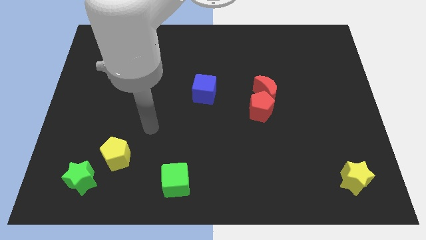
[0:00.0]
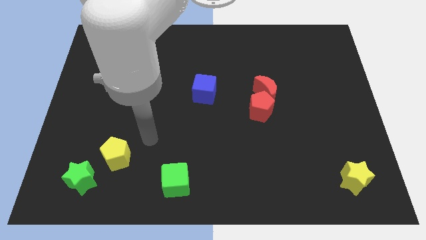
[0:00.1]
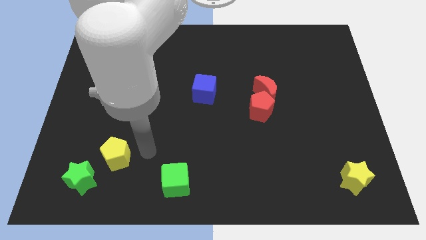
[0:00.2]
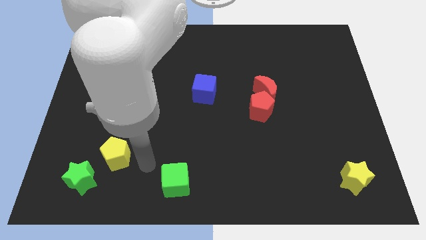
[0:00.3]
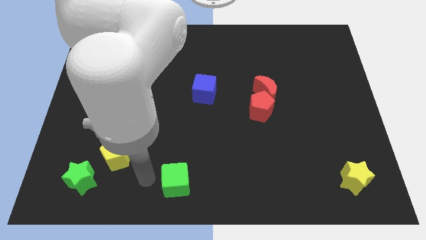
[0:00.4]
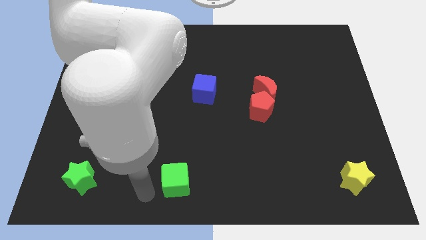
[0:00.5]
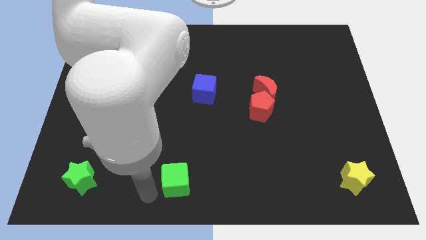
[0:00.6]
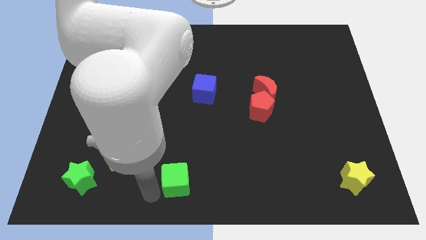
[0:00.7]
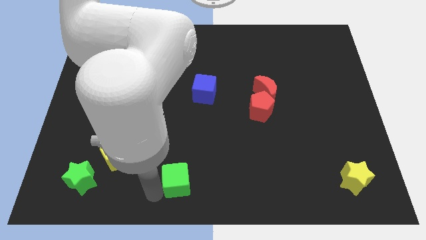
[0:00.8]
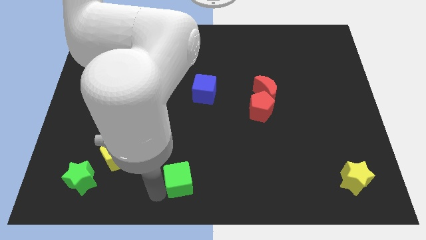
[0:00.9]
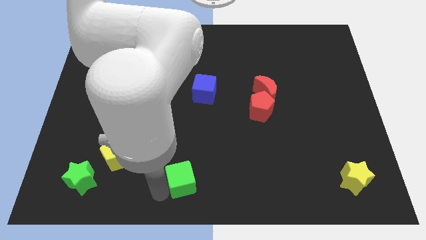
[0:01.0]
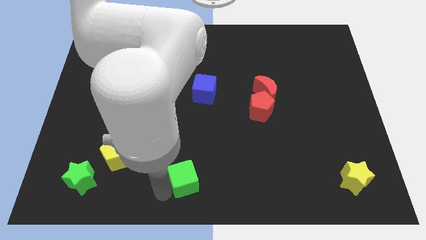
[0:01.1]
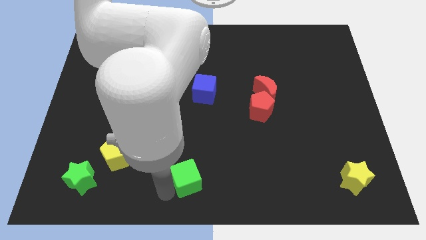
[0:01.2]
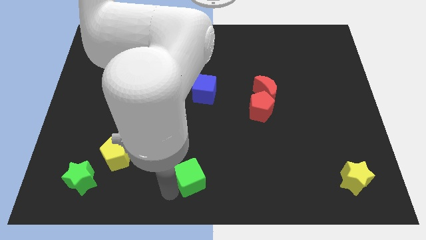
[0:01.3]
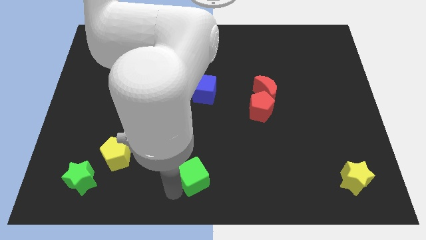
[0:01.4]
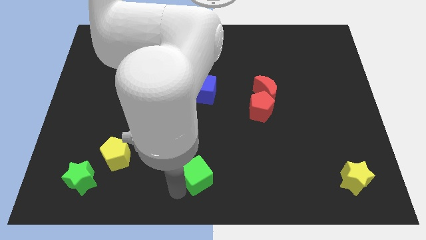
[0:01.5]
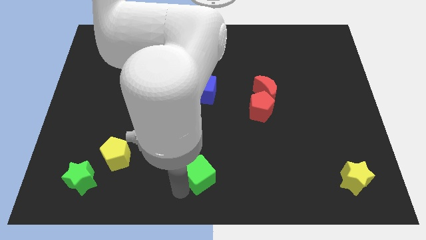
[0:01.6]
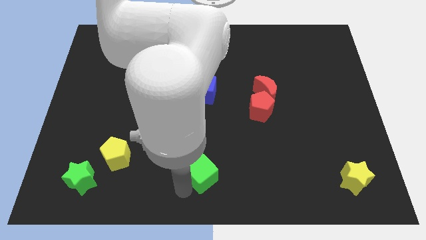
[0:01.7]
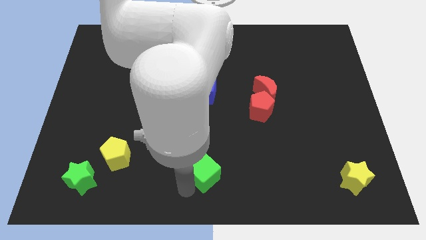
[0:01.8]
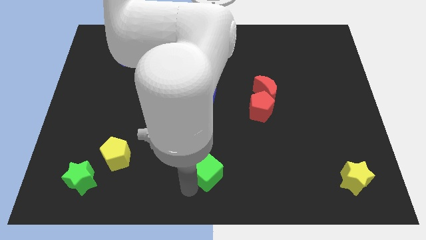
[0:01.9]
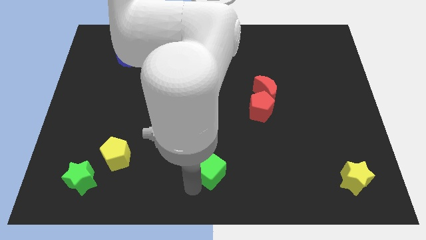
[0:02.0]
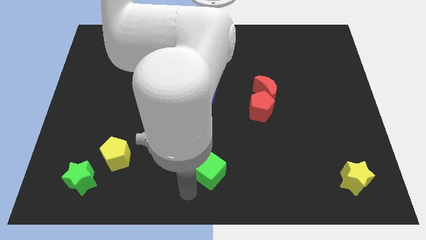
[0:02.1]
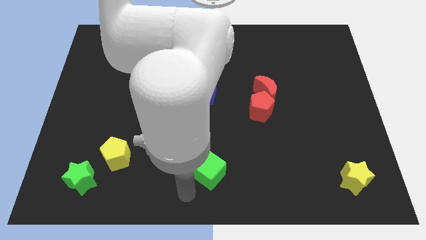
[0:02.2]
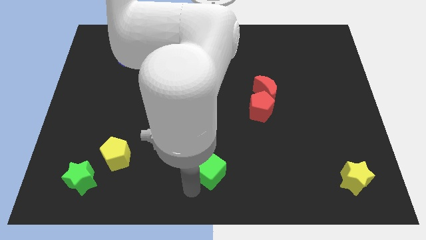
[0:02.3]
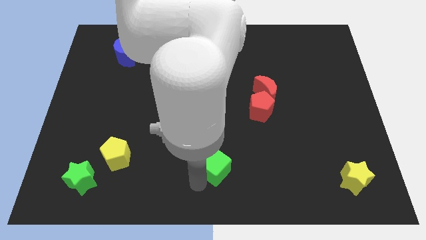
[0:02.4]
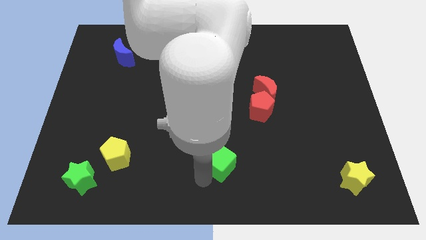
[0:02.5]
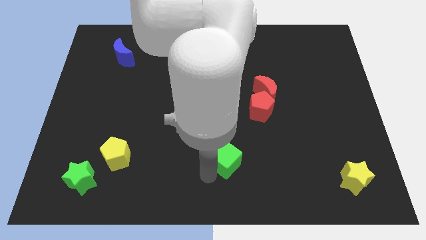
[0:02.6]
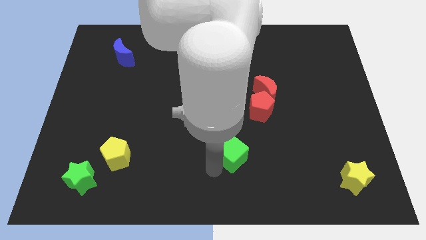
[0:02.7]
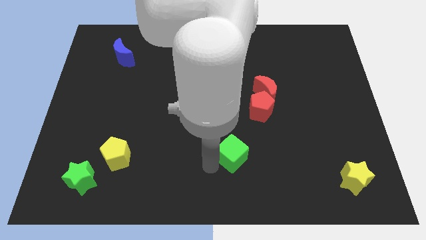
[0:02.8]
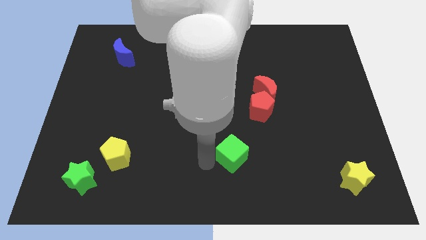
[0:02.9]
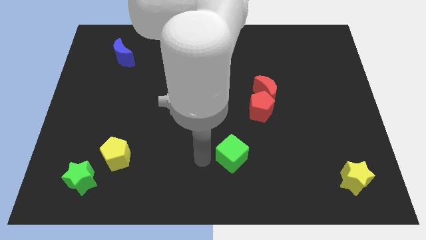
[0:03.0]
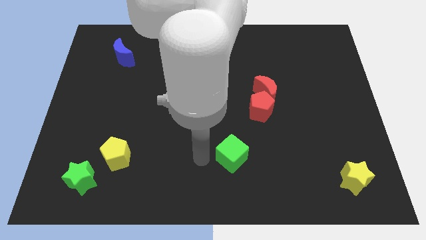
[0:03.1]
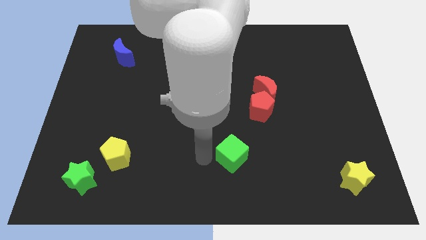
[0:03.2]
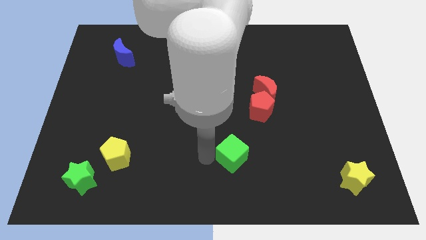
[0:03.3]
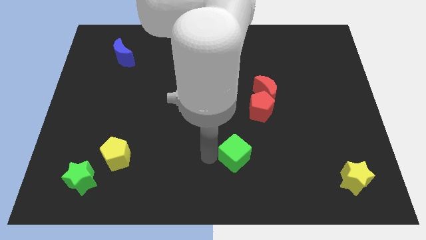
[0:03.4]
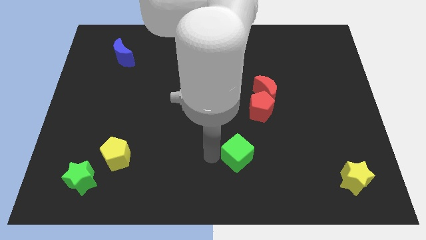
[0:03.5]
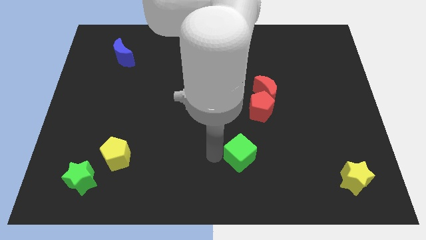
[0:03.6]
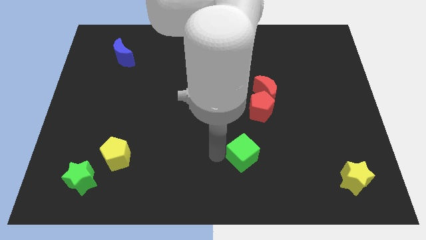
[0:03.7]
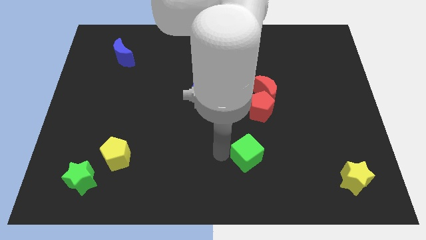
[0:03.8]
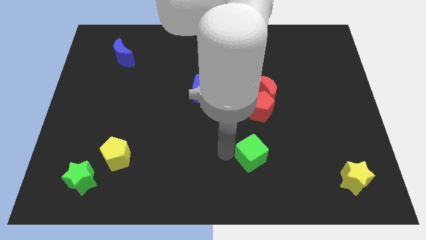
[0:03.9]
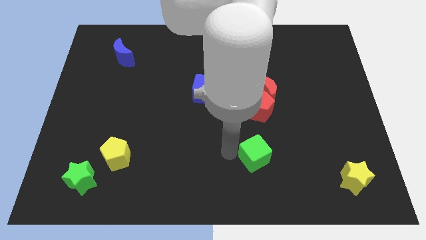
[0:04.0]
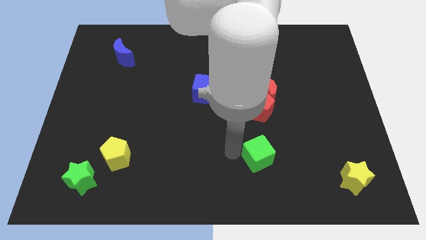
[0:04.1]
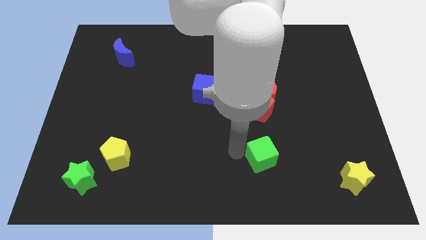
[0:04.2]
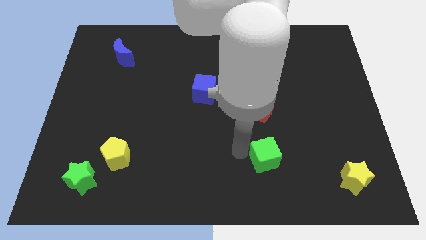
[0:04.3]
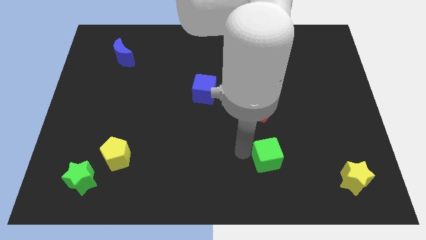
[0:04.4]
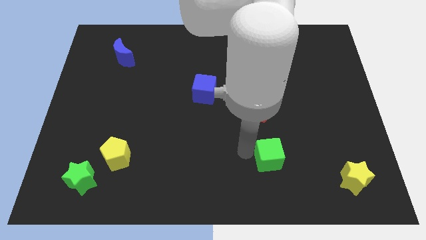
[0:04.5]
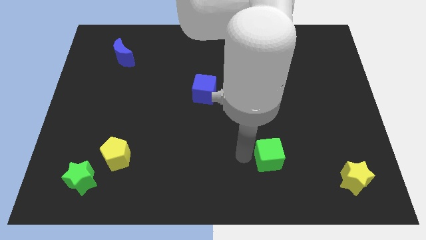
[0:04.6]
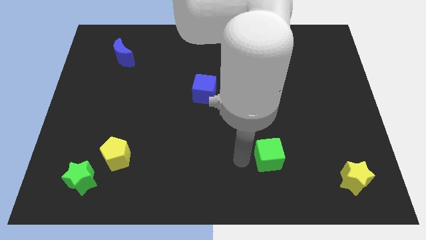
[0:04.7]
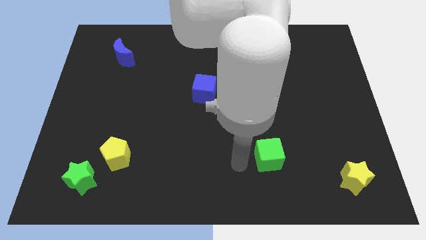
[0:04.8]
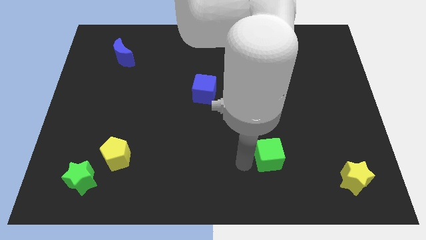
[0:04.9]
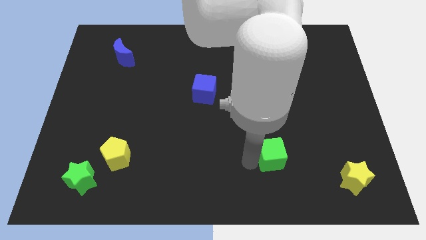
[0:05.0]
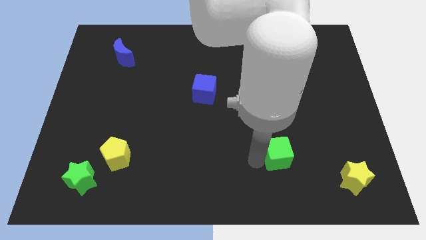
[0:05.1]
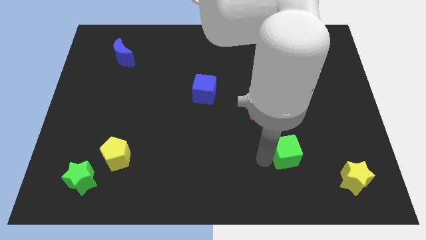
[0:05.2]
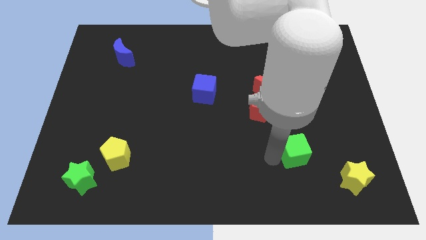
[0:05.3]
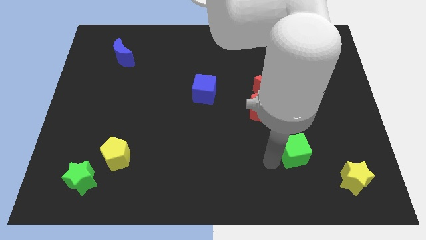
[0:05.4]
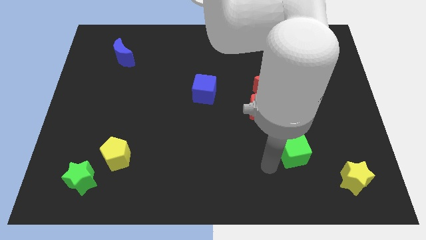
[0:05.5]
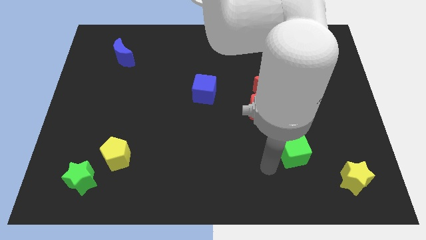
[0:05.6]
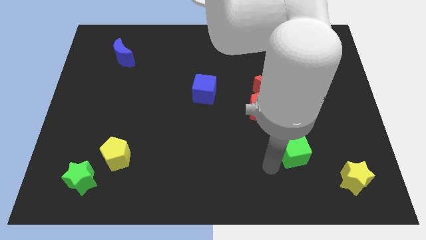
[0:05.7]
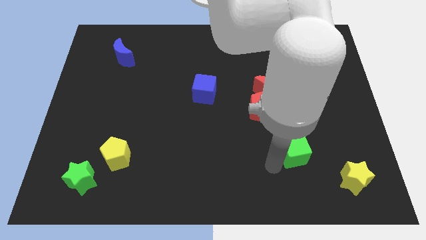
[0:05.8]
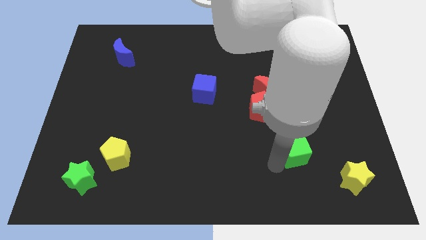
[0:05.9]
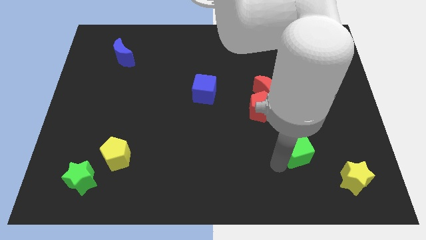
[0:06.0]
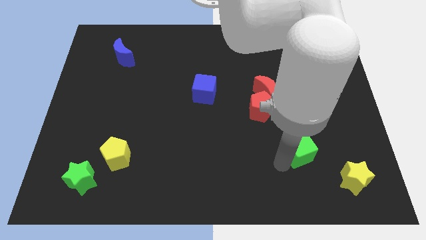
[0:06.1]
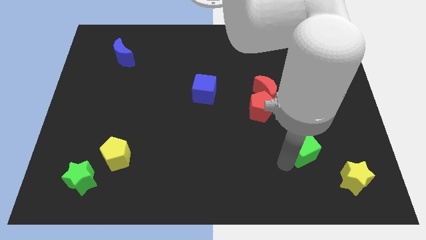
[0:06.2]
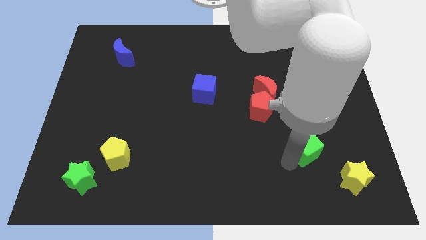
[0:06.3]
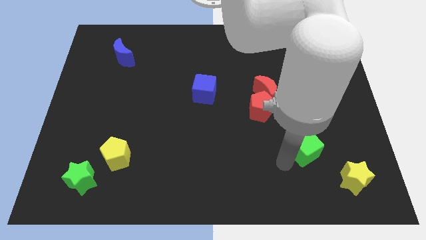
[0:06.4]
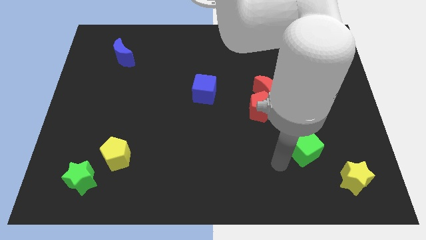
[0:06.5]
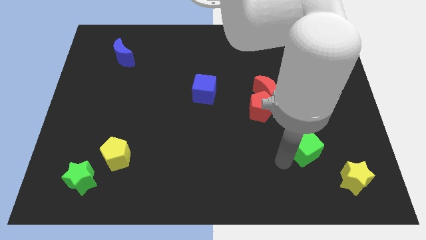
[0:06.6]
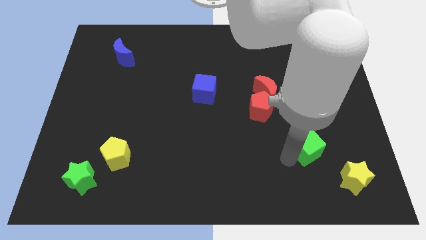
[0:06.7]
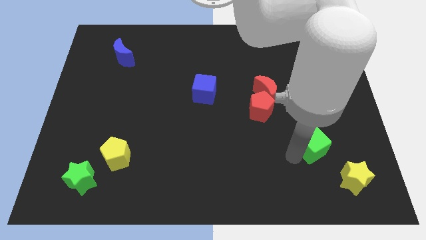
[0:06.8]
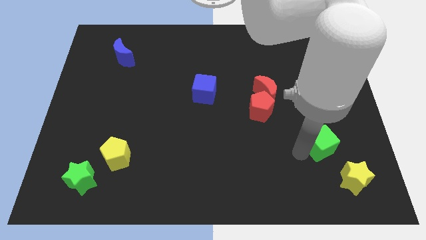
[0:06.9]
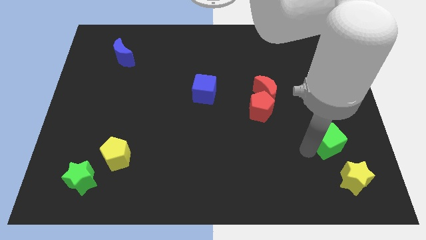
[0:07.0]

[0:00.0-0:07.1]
push the green cube to the top of the yellow star

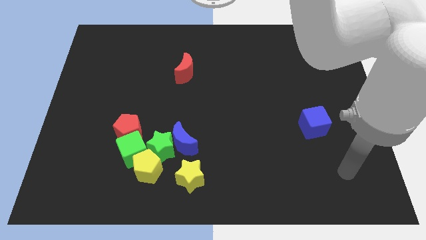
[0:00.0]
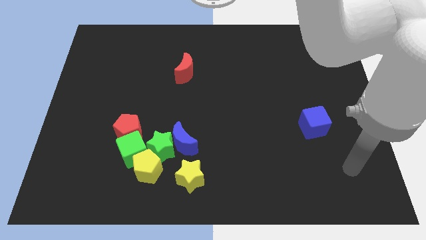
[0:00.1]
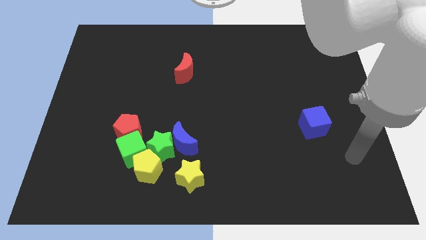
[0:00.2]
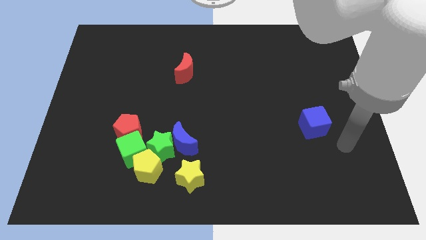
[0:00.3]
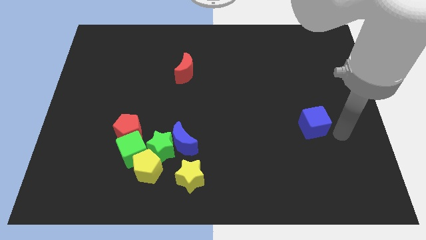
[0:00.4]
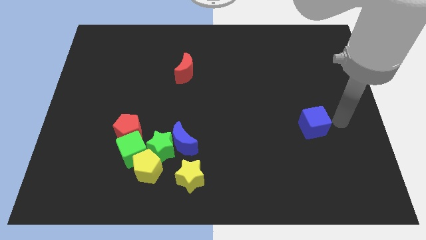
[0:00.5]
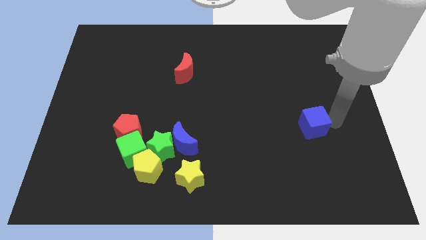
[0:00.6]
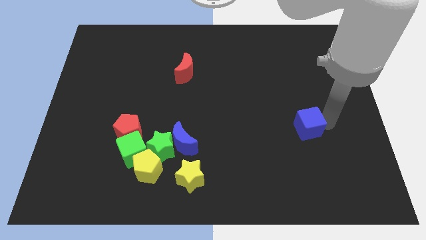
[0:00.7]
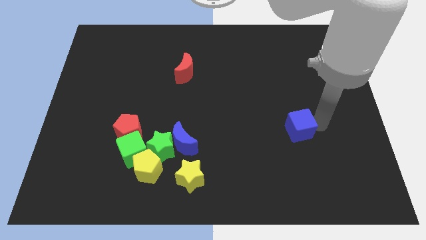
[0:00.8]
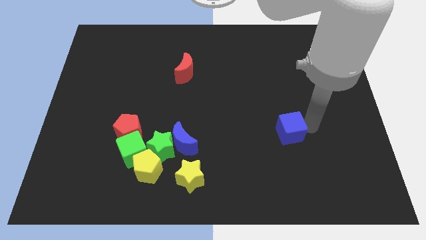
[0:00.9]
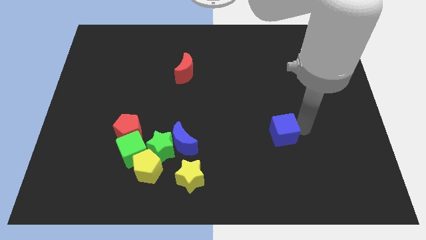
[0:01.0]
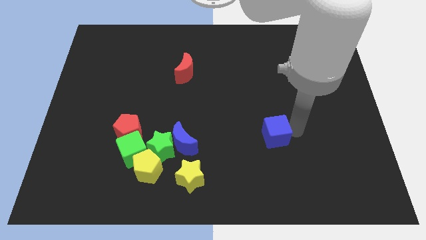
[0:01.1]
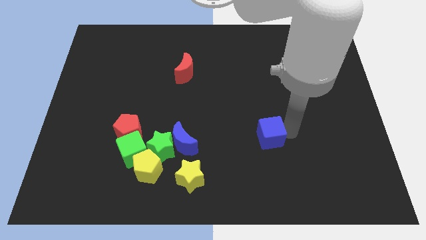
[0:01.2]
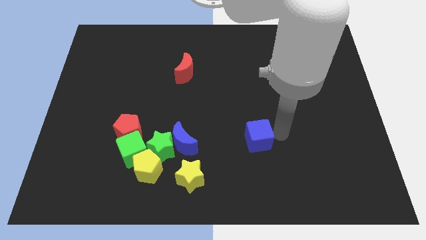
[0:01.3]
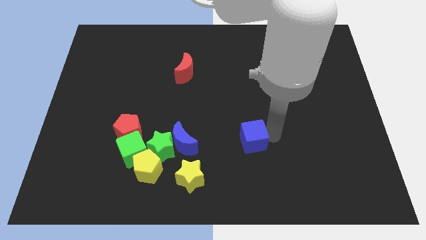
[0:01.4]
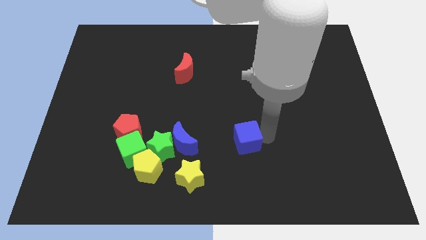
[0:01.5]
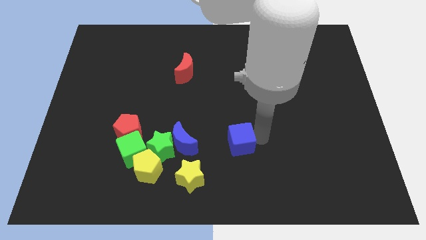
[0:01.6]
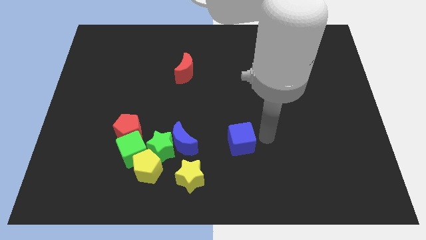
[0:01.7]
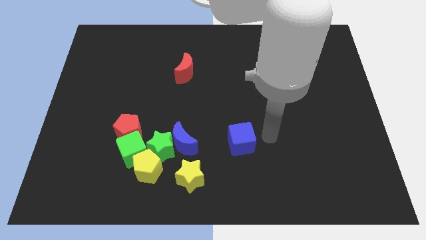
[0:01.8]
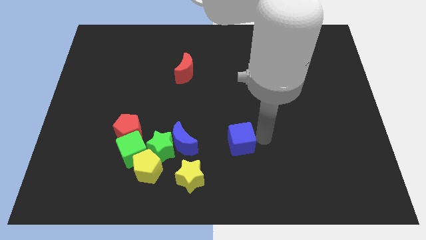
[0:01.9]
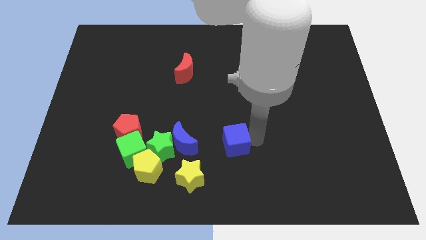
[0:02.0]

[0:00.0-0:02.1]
move the blue cube just right of the green star
